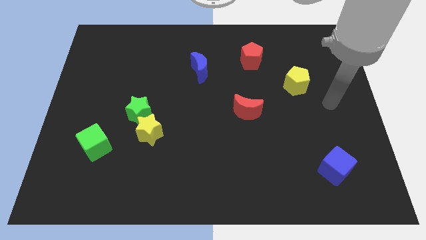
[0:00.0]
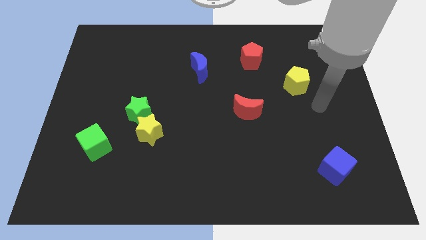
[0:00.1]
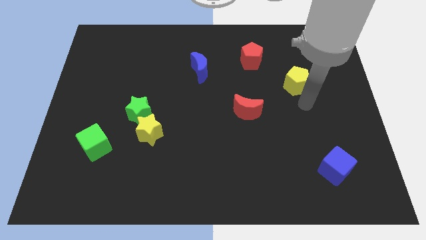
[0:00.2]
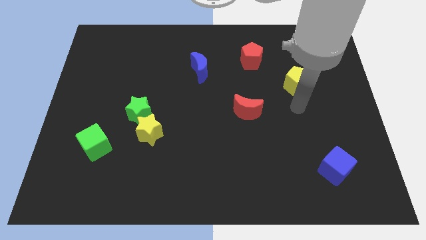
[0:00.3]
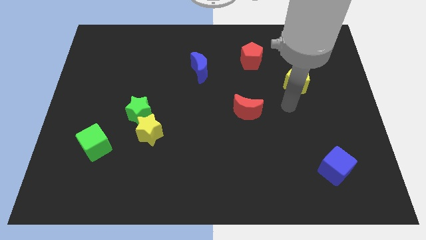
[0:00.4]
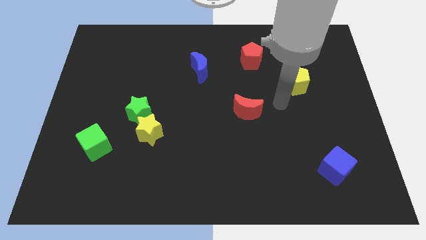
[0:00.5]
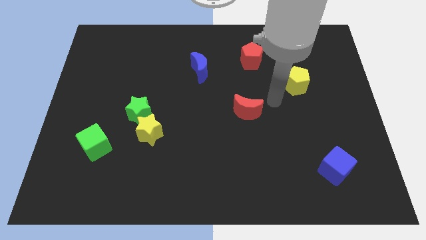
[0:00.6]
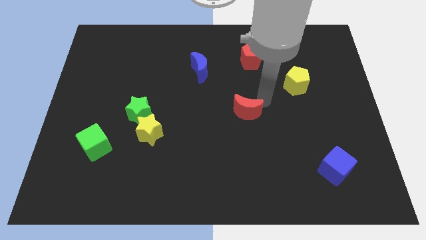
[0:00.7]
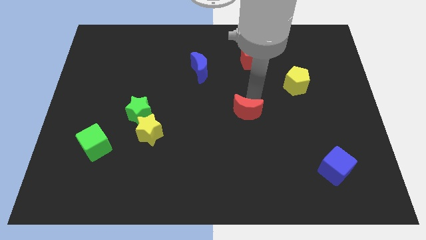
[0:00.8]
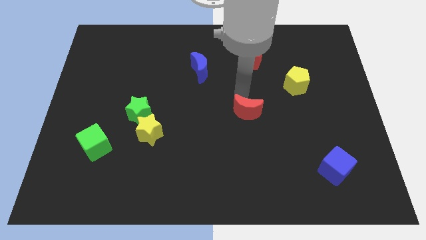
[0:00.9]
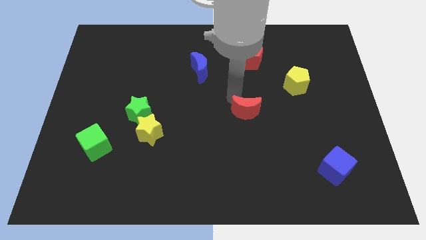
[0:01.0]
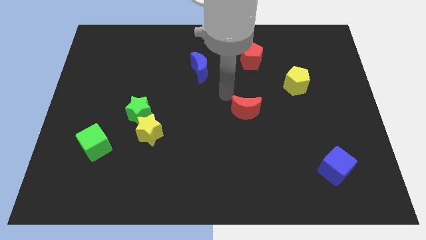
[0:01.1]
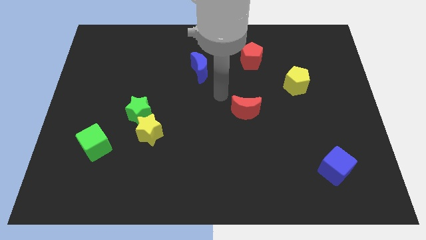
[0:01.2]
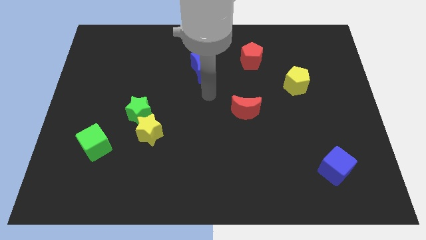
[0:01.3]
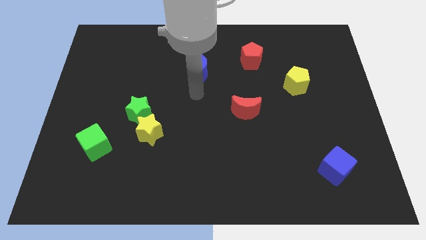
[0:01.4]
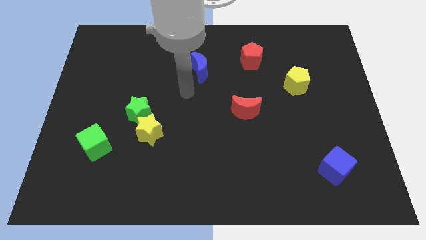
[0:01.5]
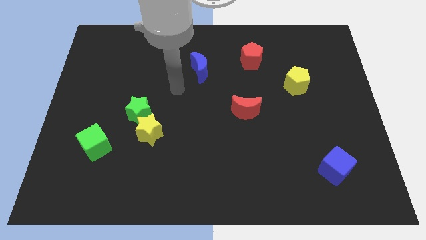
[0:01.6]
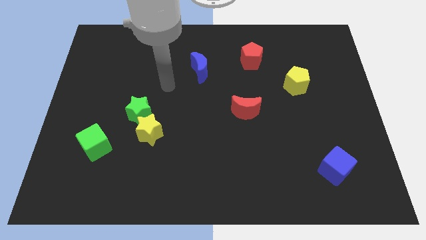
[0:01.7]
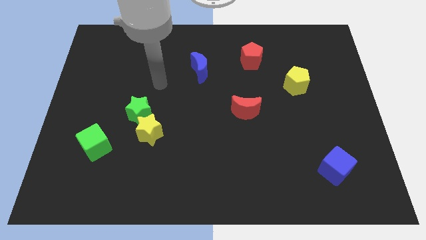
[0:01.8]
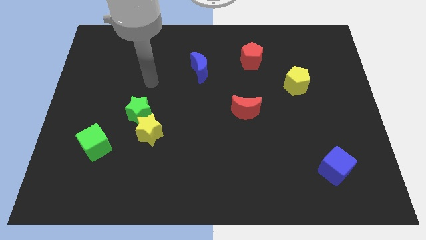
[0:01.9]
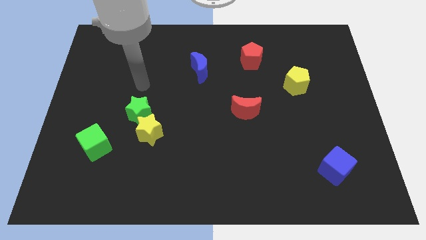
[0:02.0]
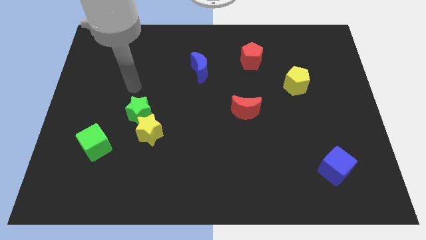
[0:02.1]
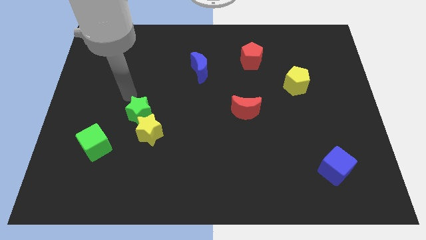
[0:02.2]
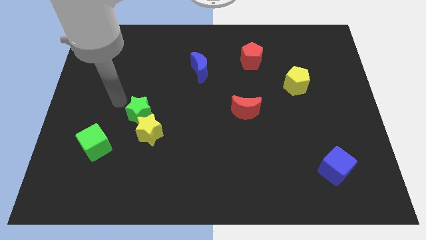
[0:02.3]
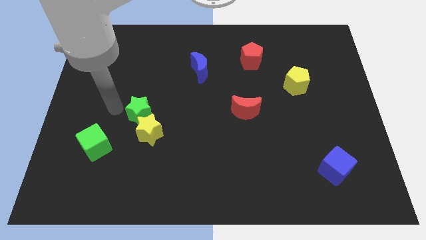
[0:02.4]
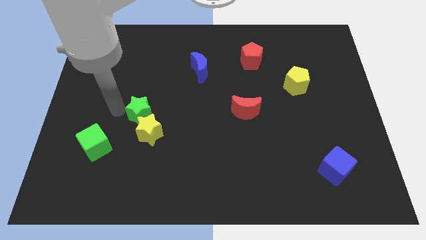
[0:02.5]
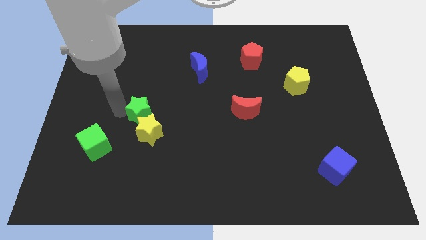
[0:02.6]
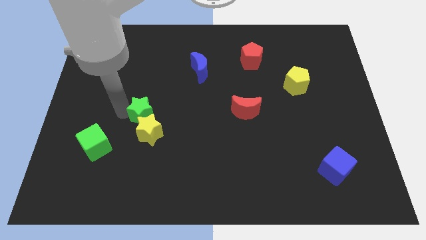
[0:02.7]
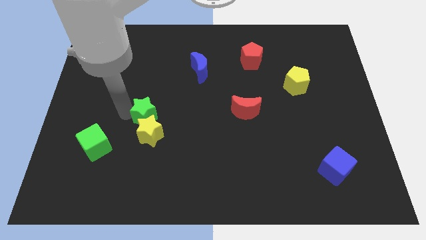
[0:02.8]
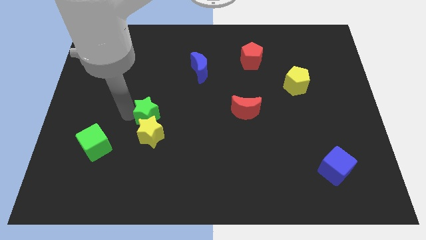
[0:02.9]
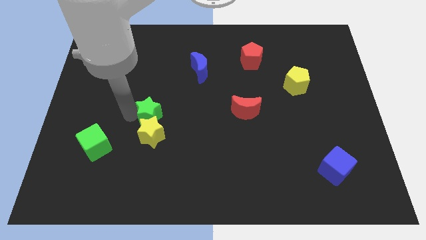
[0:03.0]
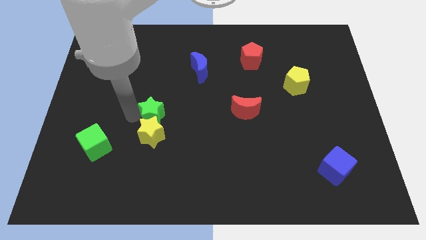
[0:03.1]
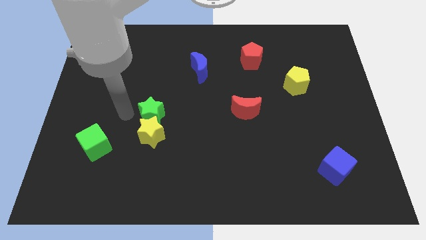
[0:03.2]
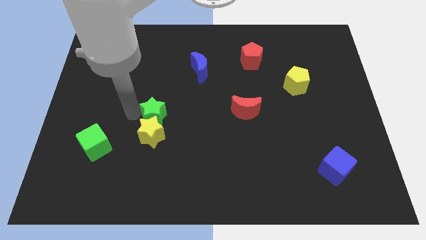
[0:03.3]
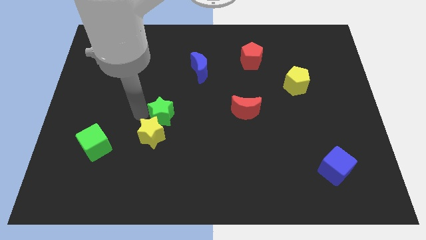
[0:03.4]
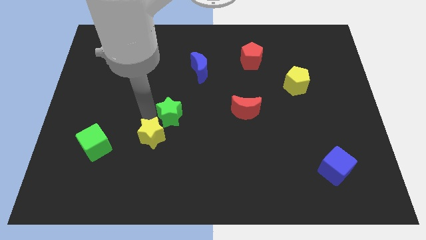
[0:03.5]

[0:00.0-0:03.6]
move the green star somewhat right

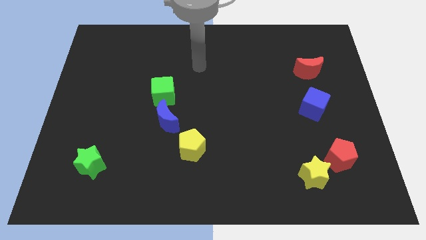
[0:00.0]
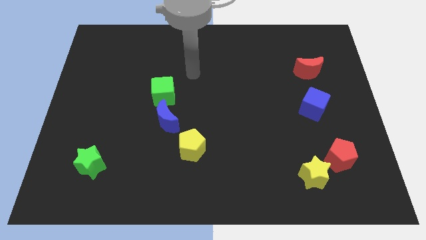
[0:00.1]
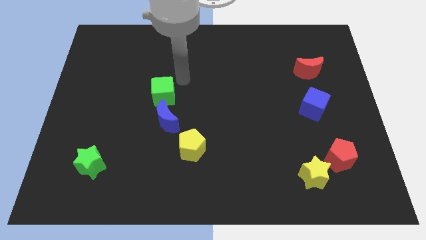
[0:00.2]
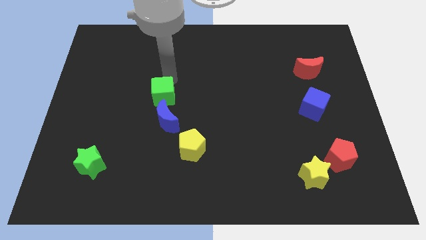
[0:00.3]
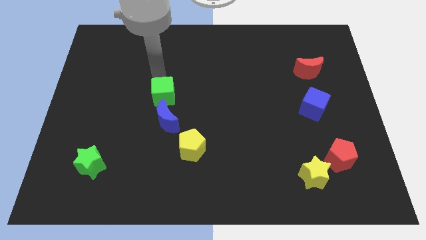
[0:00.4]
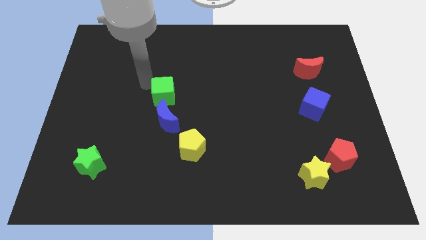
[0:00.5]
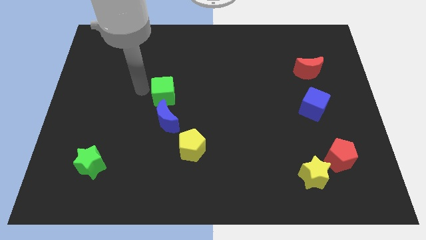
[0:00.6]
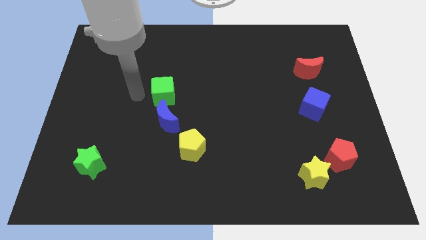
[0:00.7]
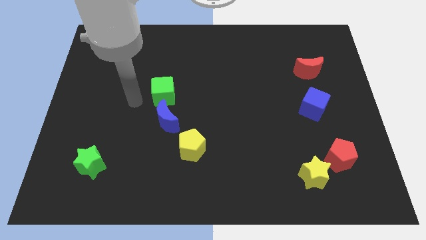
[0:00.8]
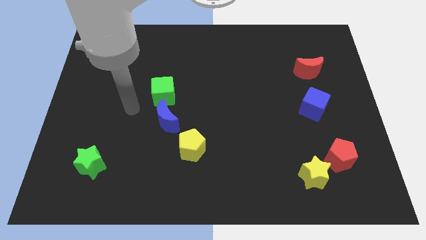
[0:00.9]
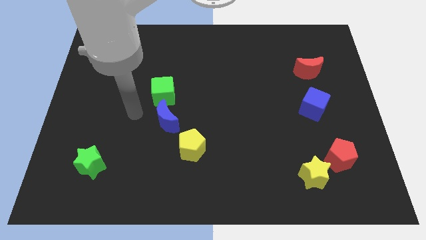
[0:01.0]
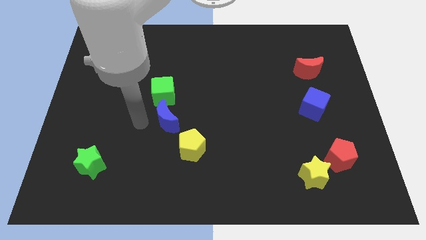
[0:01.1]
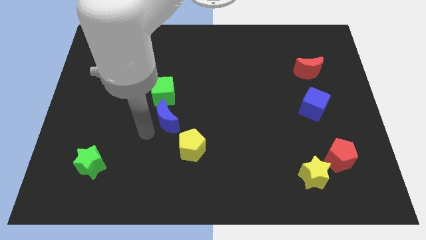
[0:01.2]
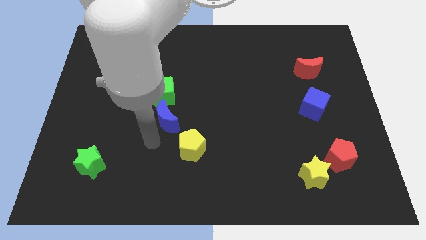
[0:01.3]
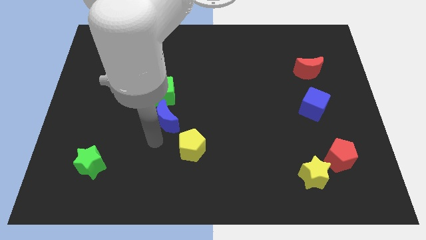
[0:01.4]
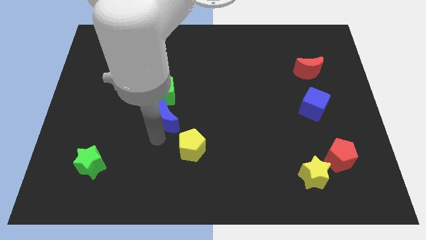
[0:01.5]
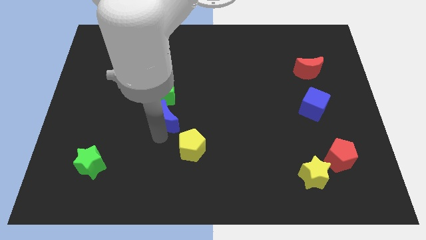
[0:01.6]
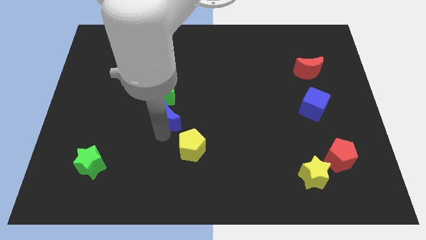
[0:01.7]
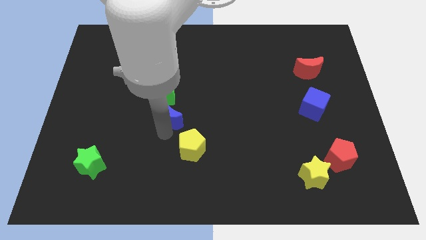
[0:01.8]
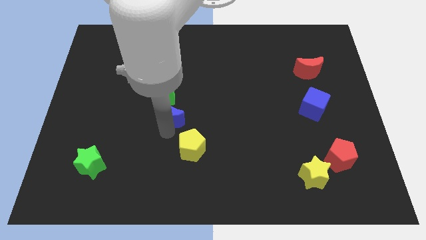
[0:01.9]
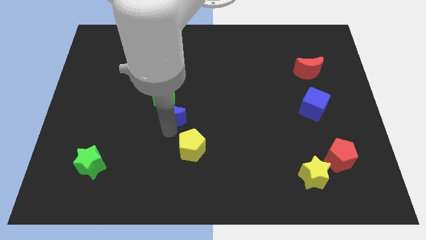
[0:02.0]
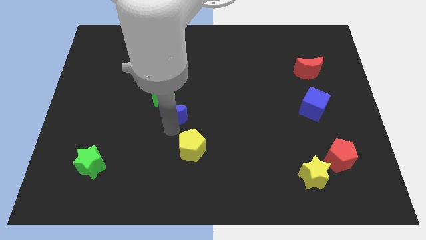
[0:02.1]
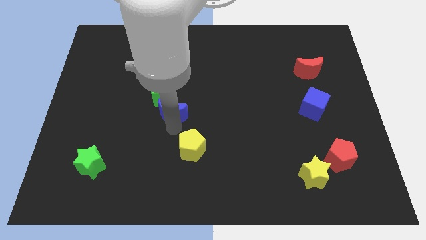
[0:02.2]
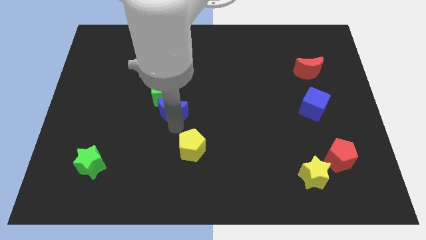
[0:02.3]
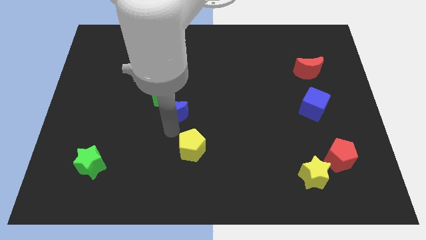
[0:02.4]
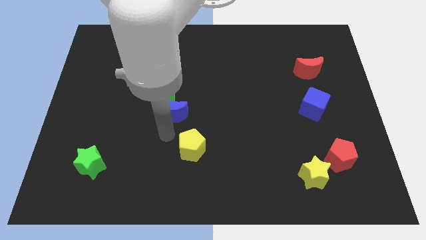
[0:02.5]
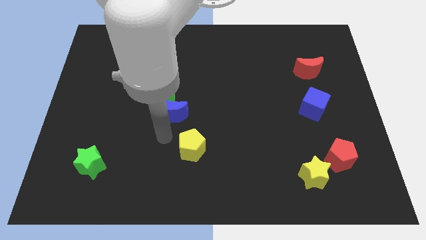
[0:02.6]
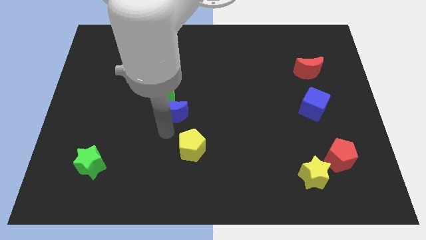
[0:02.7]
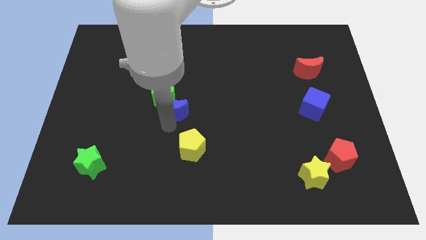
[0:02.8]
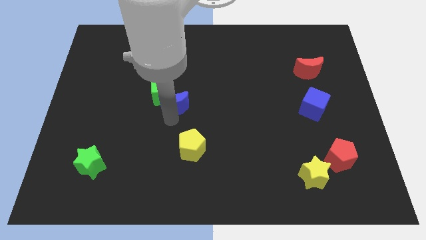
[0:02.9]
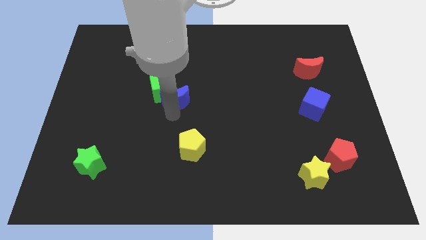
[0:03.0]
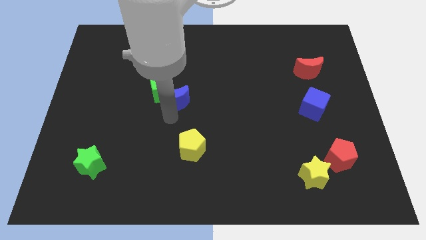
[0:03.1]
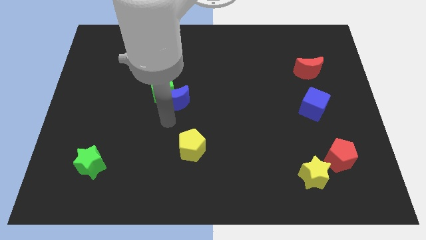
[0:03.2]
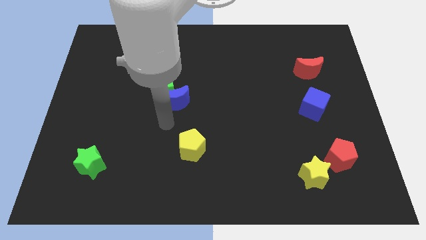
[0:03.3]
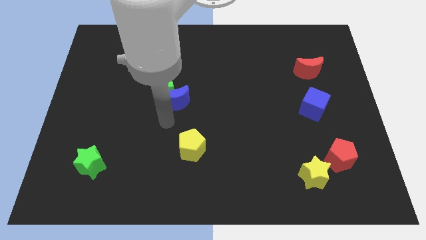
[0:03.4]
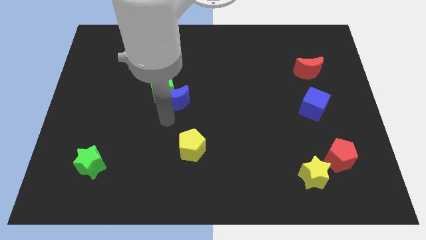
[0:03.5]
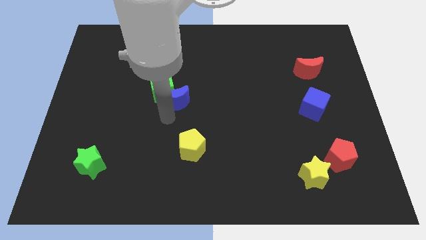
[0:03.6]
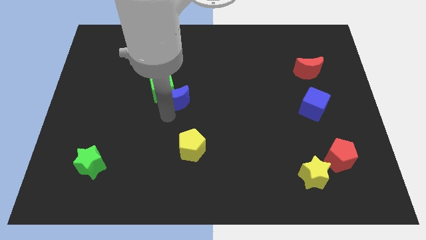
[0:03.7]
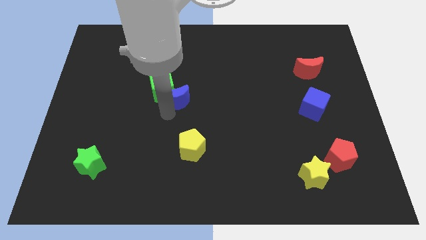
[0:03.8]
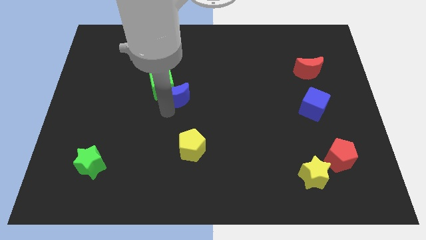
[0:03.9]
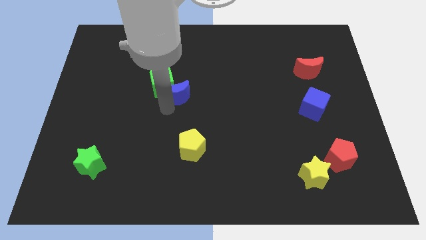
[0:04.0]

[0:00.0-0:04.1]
slide the blue moon up somewhat
